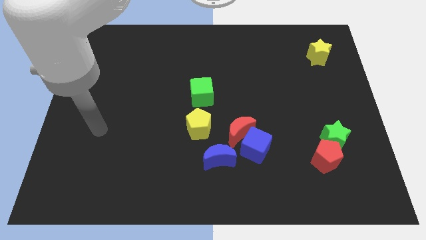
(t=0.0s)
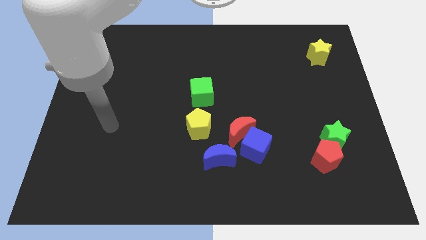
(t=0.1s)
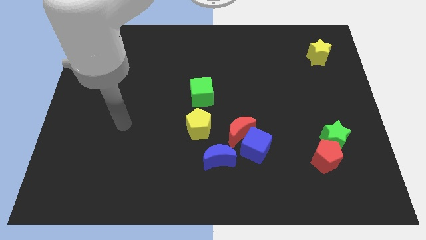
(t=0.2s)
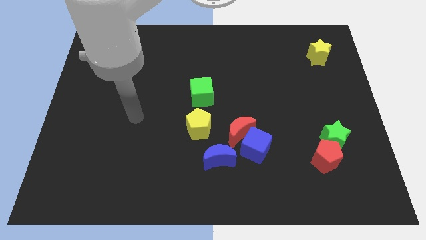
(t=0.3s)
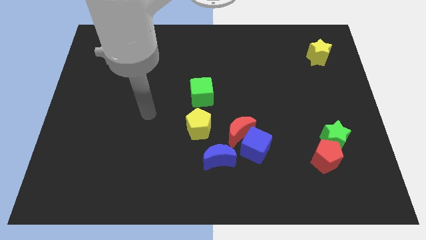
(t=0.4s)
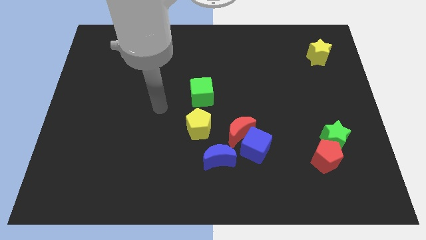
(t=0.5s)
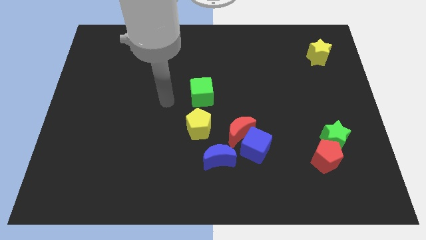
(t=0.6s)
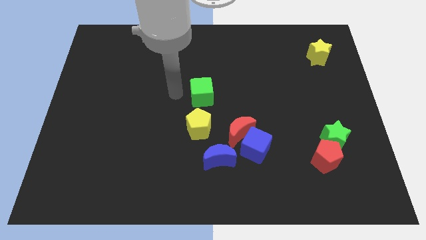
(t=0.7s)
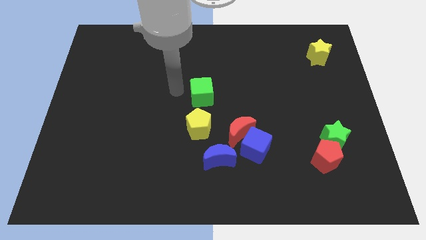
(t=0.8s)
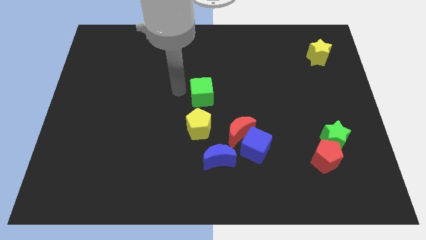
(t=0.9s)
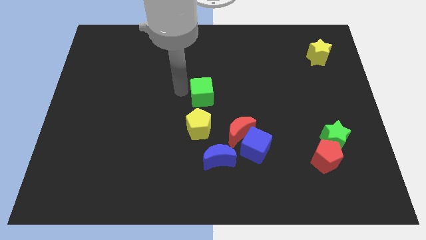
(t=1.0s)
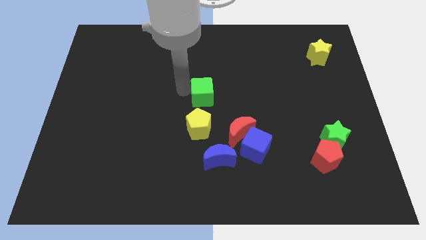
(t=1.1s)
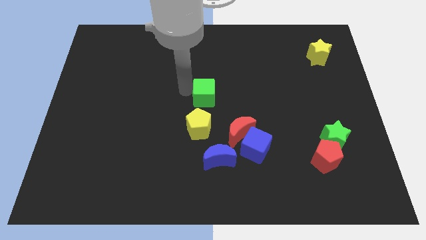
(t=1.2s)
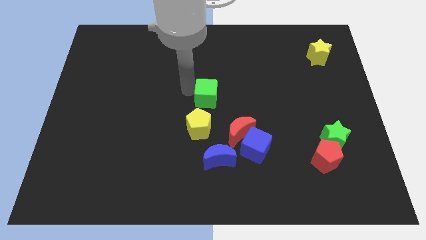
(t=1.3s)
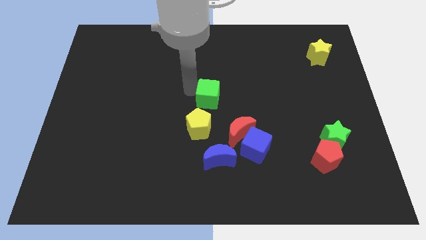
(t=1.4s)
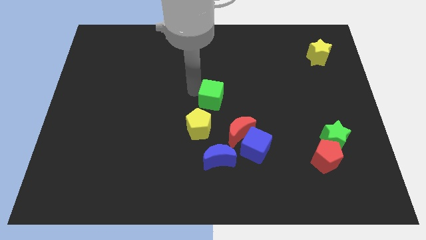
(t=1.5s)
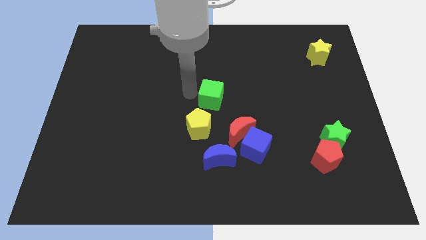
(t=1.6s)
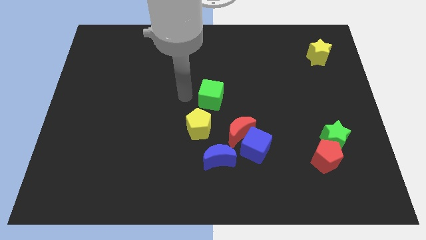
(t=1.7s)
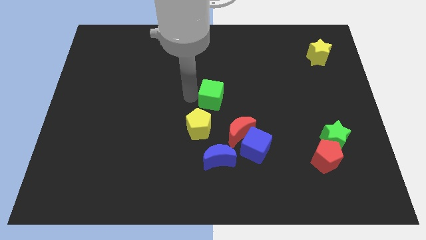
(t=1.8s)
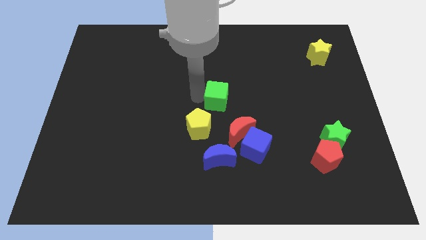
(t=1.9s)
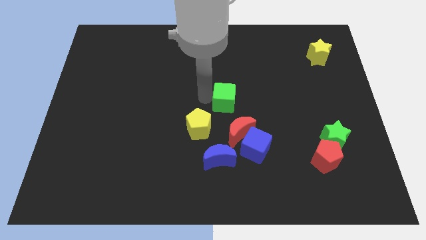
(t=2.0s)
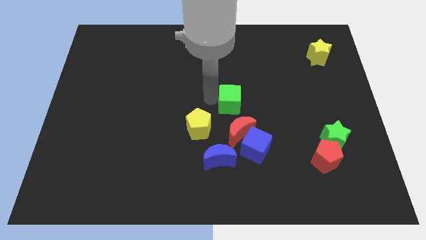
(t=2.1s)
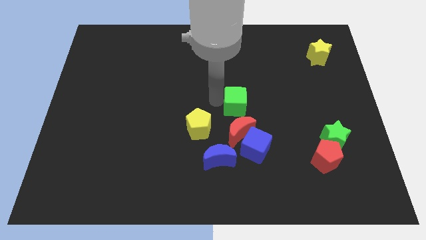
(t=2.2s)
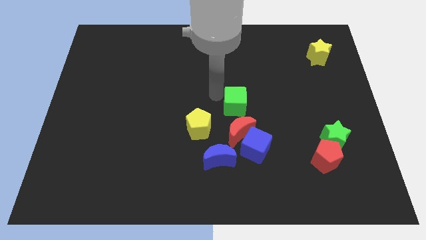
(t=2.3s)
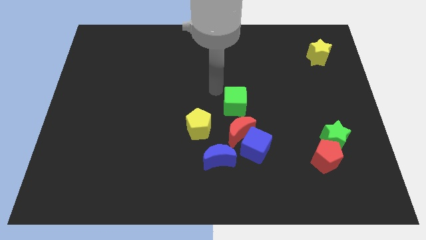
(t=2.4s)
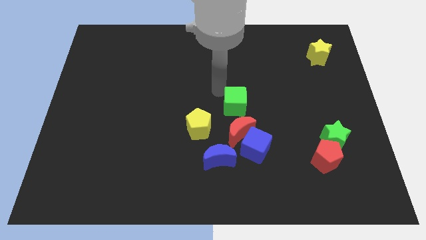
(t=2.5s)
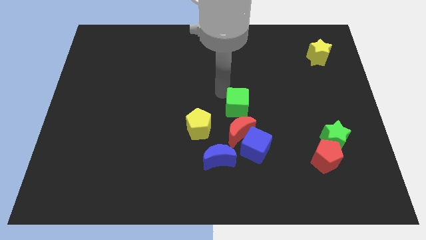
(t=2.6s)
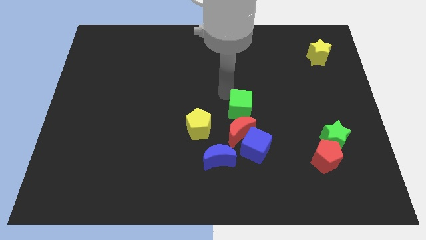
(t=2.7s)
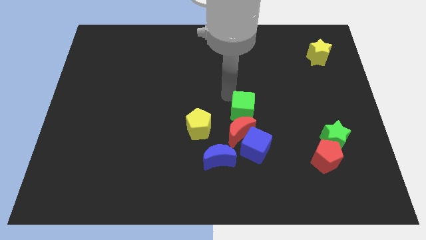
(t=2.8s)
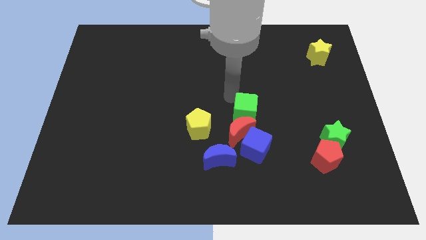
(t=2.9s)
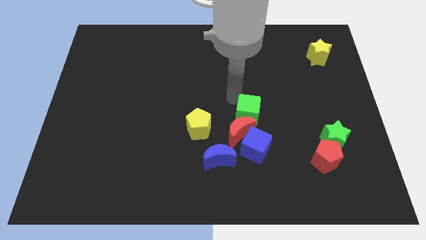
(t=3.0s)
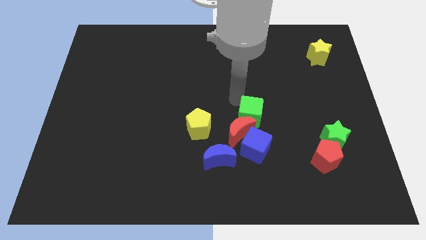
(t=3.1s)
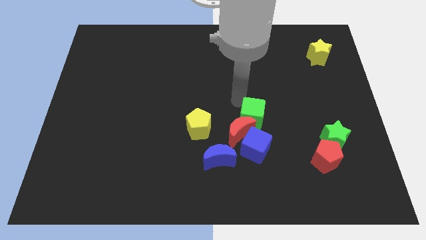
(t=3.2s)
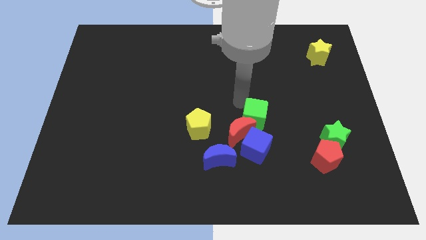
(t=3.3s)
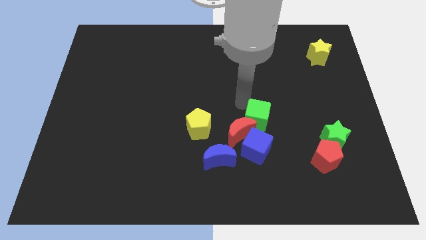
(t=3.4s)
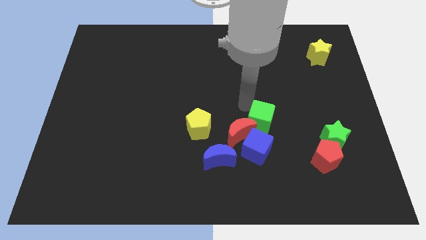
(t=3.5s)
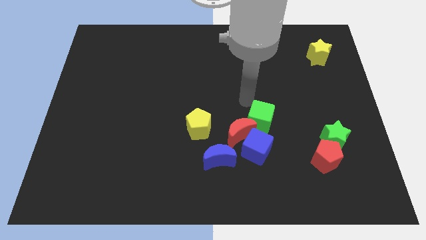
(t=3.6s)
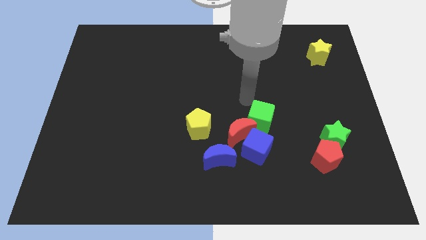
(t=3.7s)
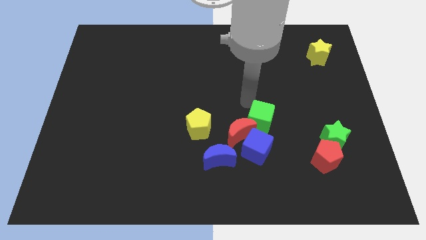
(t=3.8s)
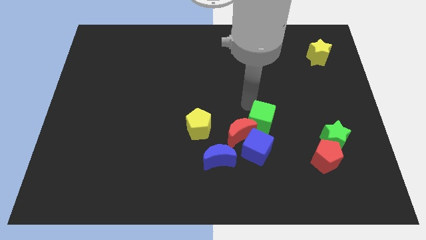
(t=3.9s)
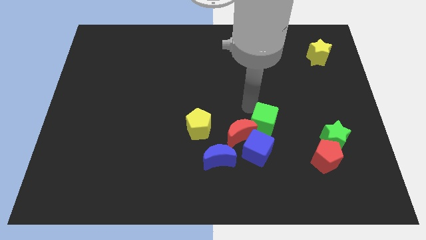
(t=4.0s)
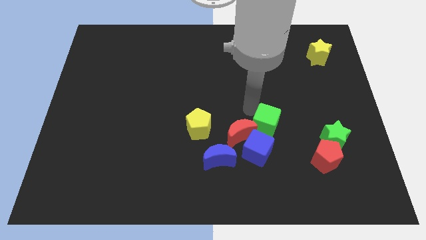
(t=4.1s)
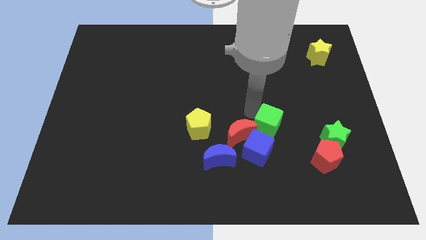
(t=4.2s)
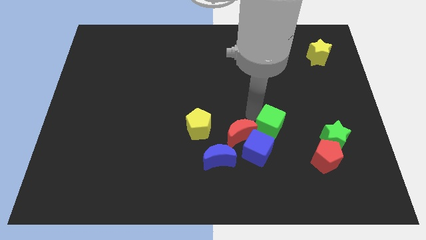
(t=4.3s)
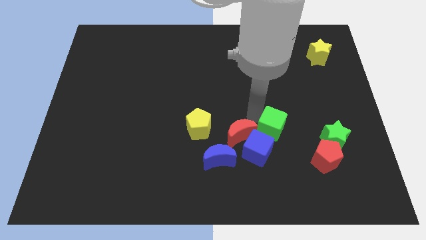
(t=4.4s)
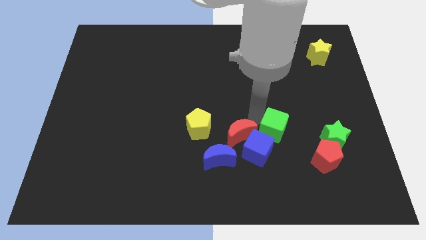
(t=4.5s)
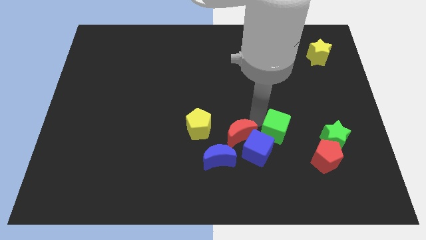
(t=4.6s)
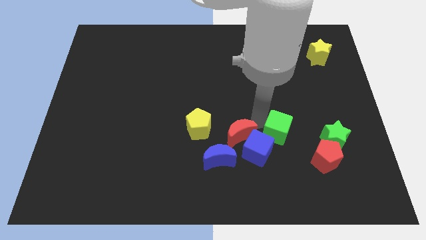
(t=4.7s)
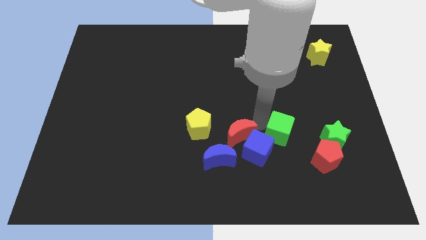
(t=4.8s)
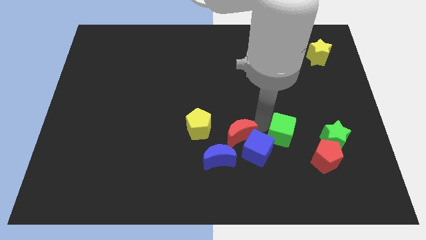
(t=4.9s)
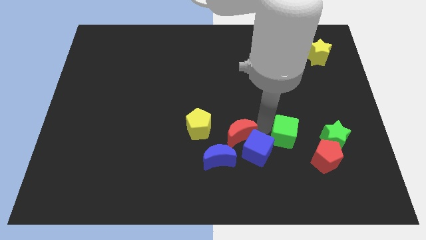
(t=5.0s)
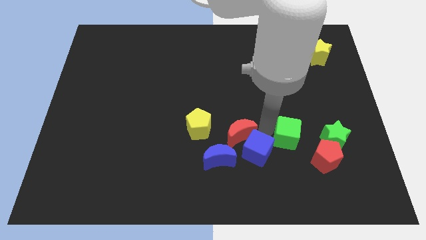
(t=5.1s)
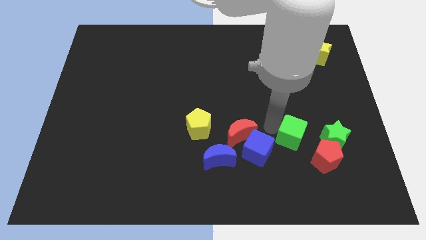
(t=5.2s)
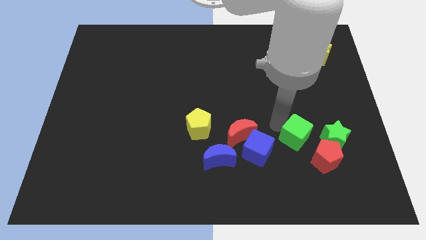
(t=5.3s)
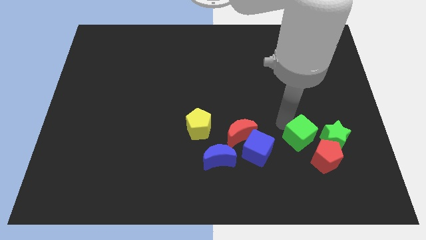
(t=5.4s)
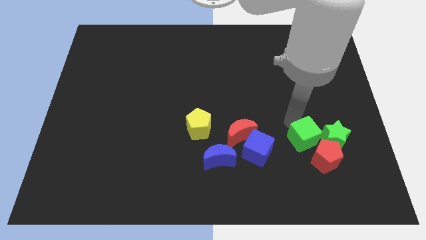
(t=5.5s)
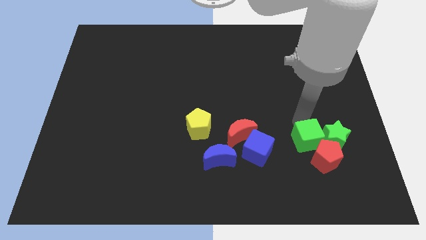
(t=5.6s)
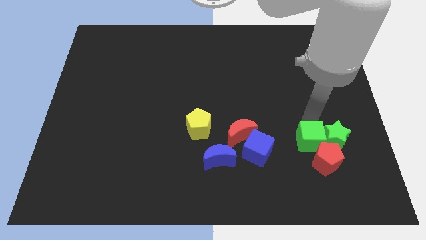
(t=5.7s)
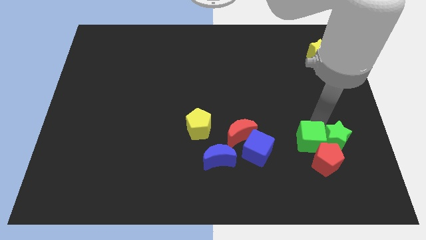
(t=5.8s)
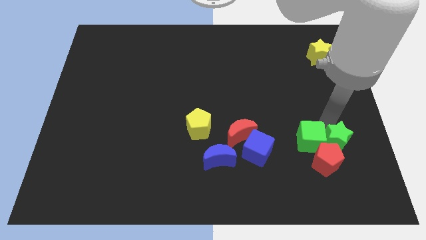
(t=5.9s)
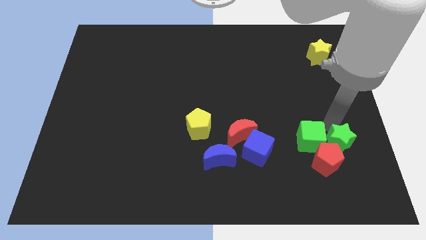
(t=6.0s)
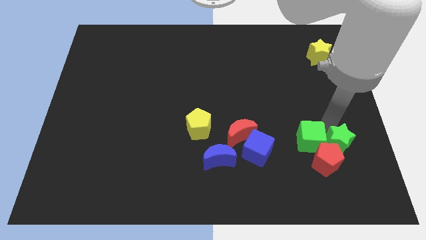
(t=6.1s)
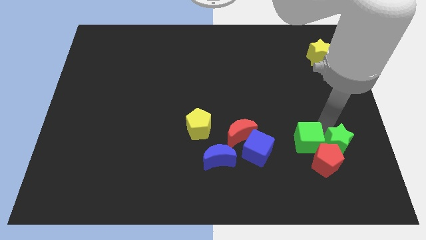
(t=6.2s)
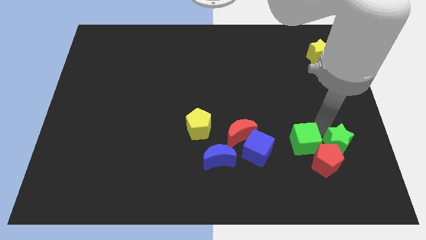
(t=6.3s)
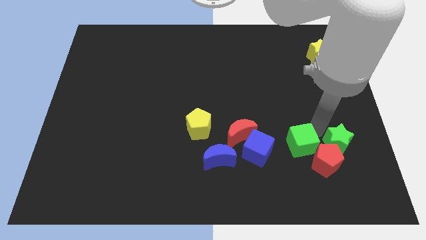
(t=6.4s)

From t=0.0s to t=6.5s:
put the green cube left of the red pentagon
